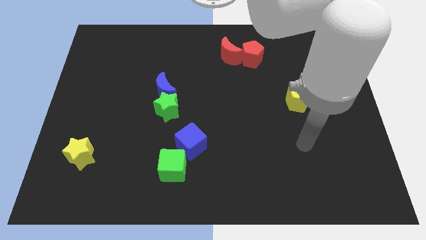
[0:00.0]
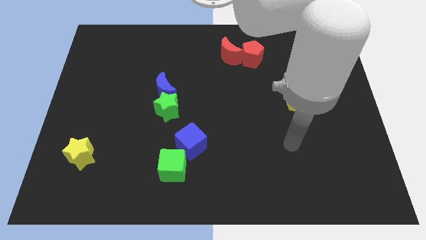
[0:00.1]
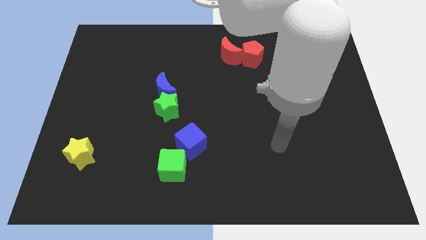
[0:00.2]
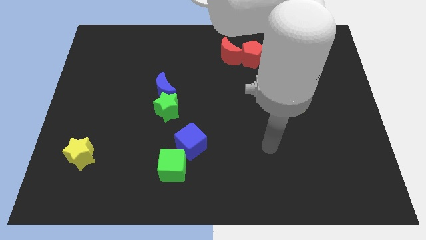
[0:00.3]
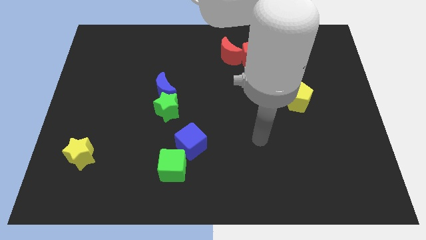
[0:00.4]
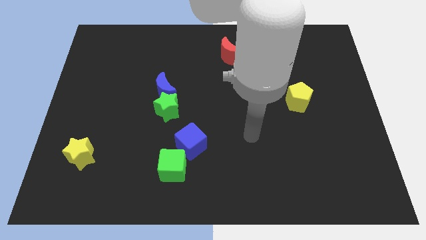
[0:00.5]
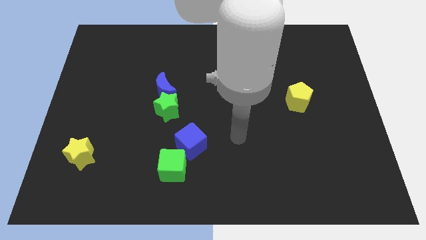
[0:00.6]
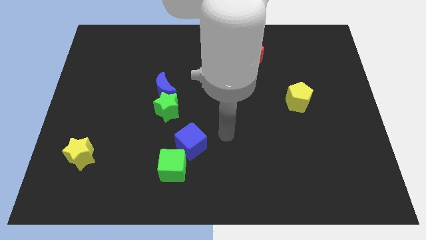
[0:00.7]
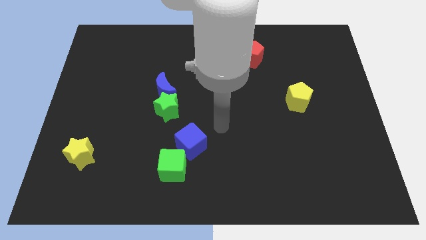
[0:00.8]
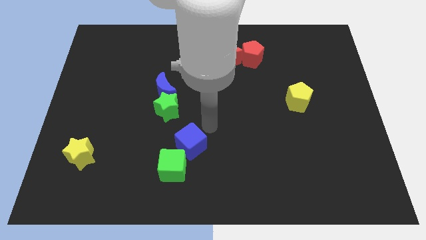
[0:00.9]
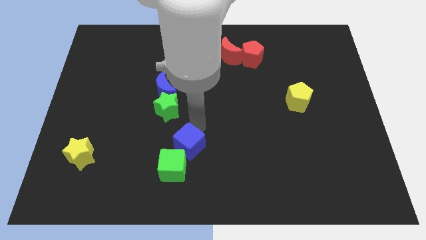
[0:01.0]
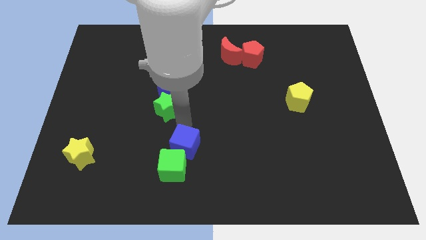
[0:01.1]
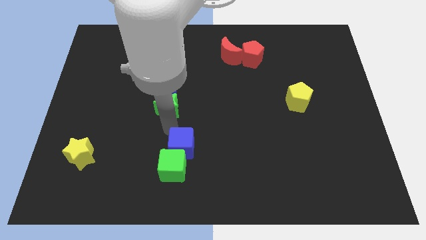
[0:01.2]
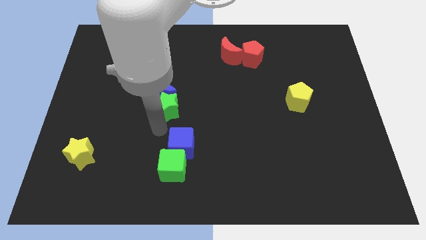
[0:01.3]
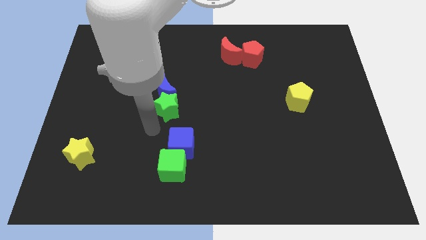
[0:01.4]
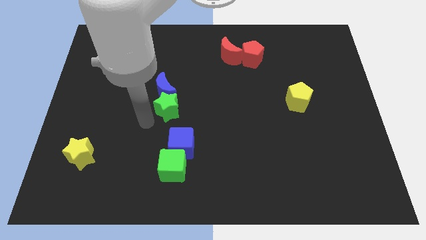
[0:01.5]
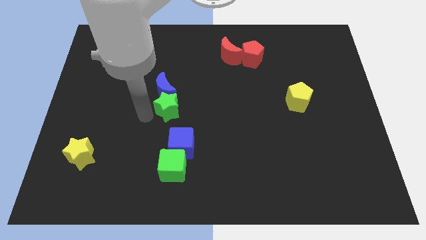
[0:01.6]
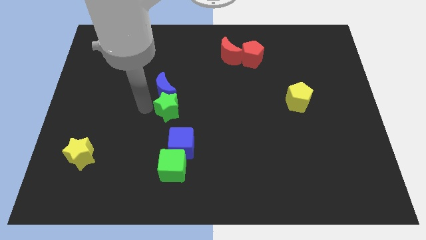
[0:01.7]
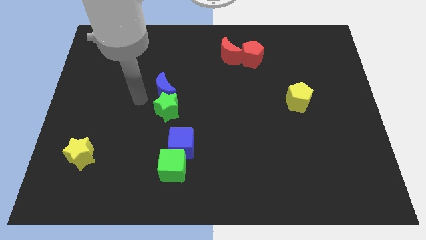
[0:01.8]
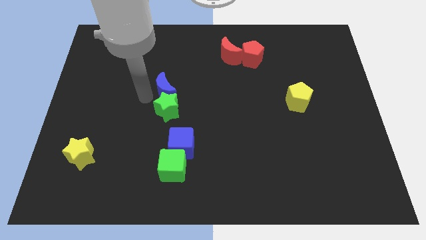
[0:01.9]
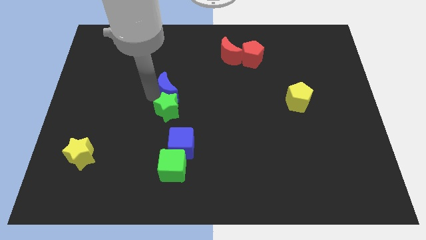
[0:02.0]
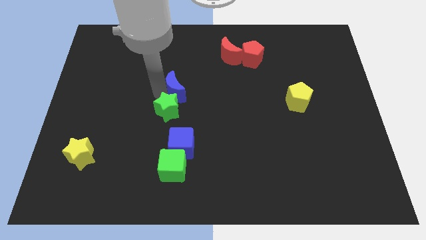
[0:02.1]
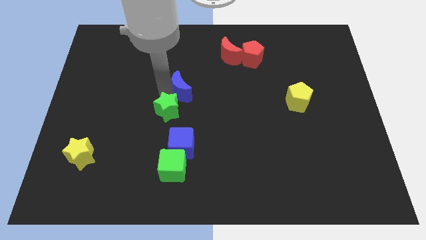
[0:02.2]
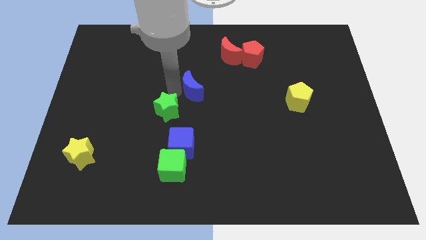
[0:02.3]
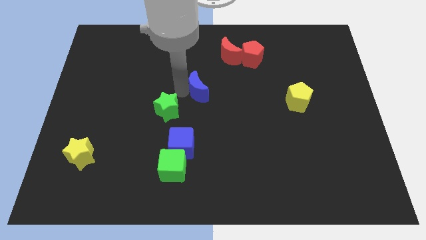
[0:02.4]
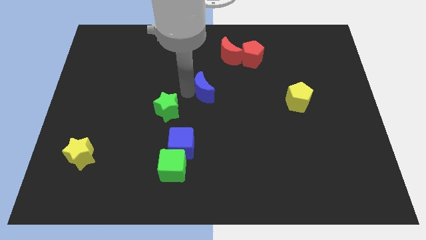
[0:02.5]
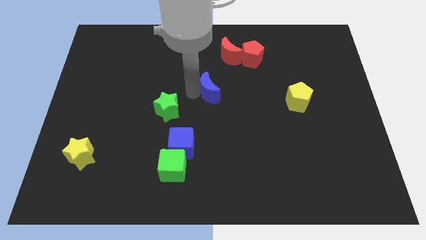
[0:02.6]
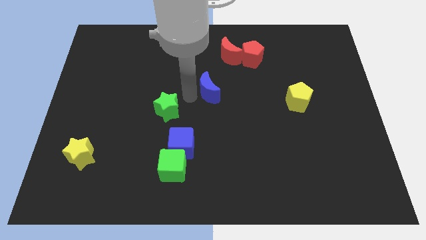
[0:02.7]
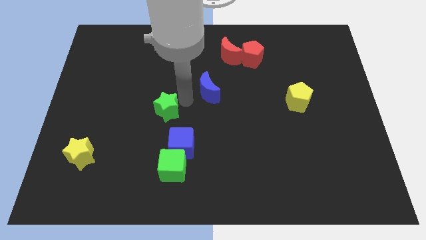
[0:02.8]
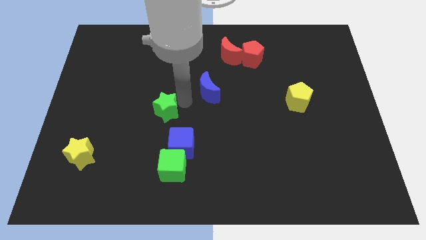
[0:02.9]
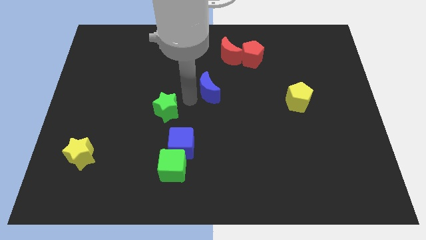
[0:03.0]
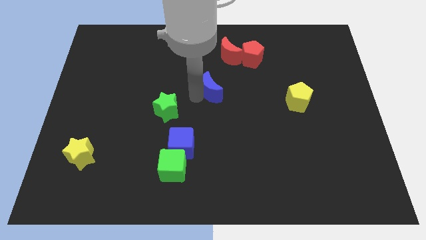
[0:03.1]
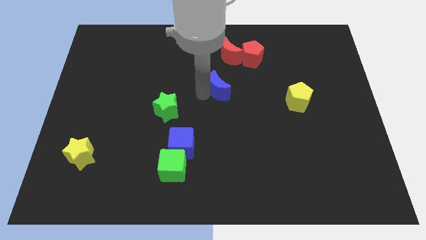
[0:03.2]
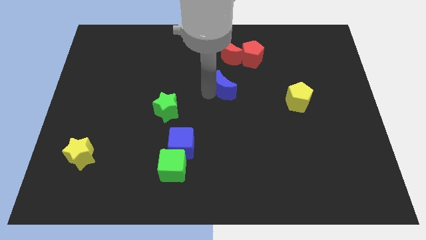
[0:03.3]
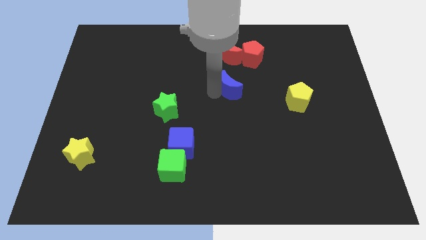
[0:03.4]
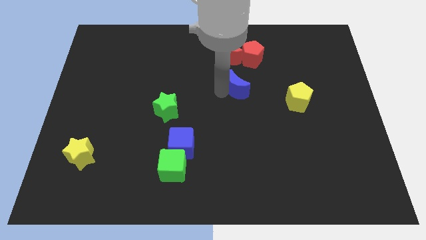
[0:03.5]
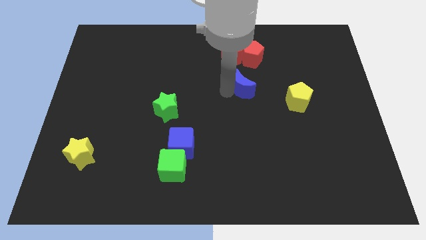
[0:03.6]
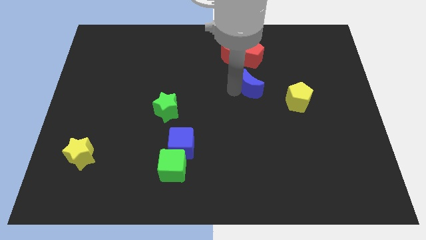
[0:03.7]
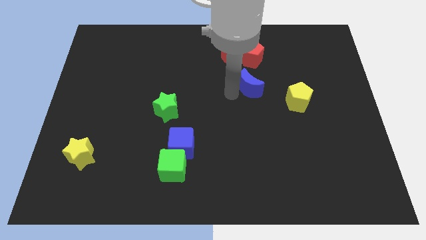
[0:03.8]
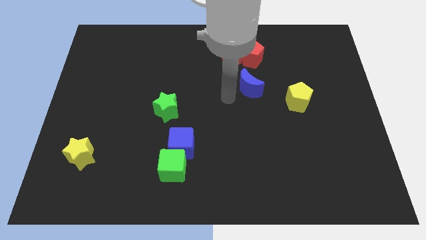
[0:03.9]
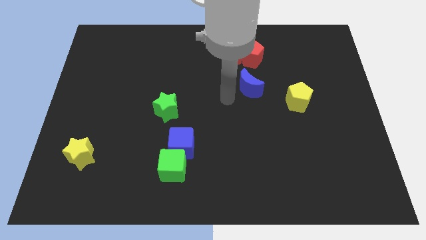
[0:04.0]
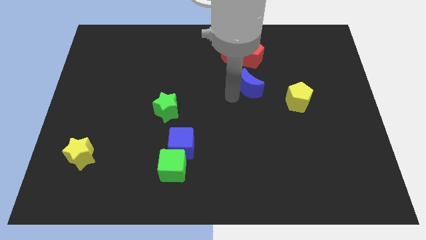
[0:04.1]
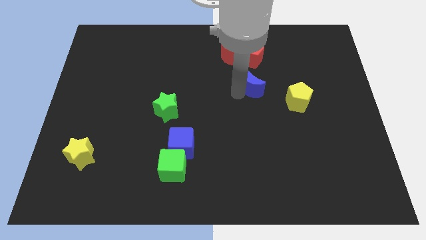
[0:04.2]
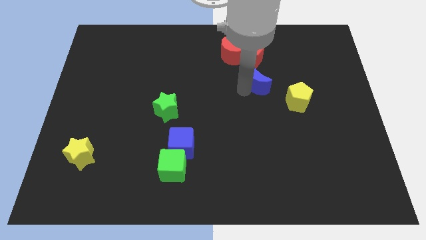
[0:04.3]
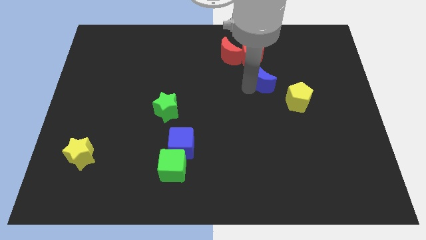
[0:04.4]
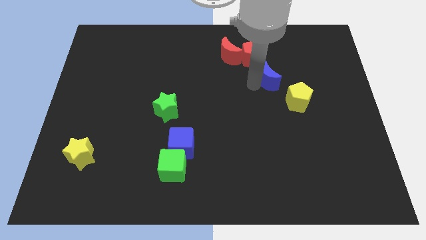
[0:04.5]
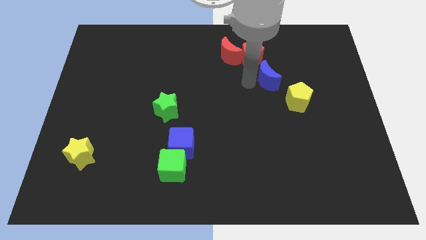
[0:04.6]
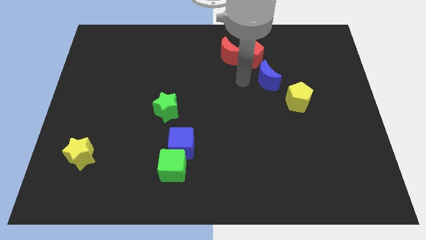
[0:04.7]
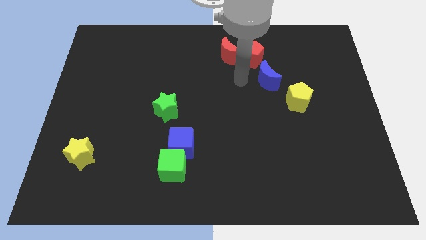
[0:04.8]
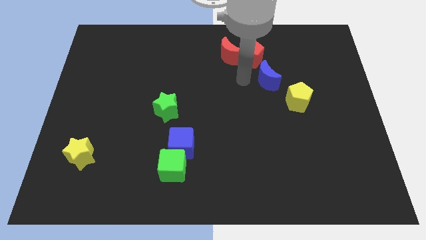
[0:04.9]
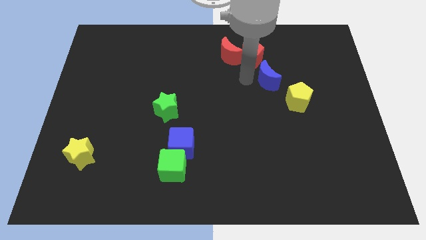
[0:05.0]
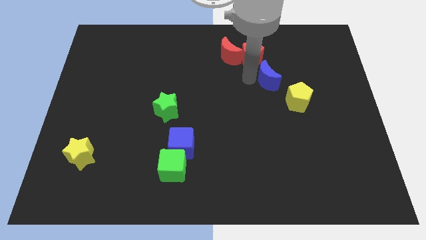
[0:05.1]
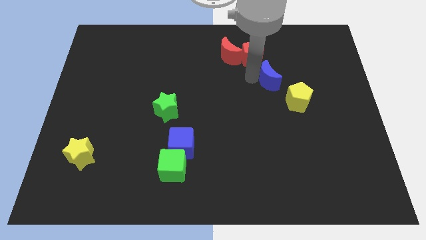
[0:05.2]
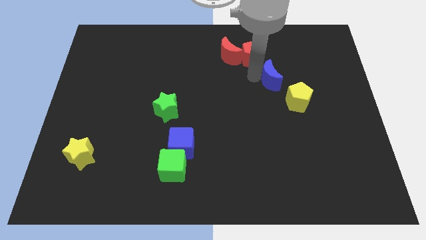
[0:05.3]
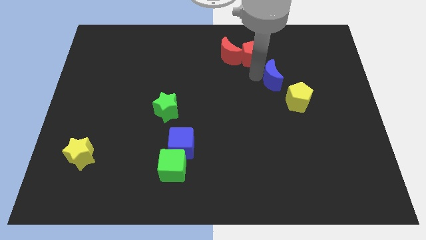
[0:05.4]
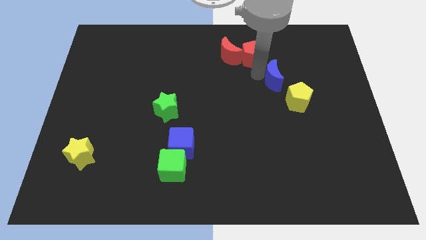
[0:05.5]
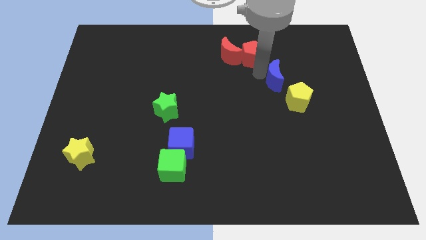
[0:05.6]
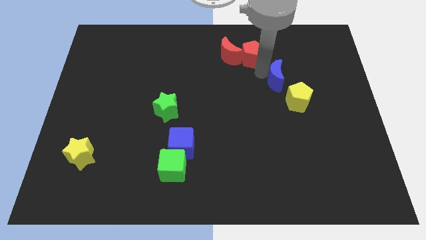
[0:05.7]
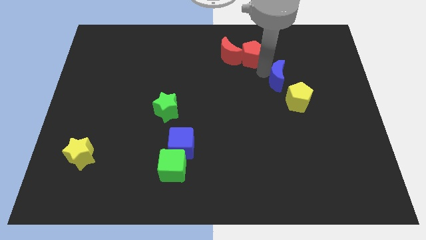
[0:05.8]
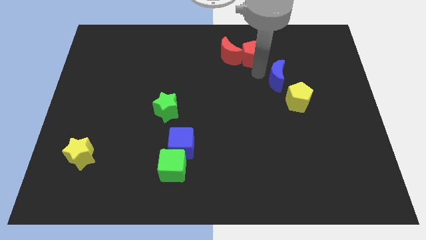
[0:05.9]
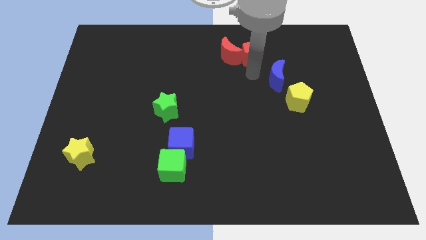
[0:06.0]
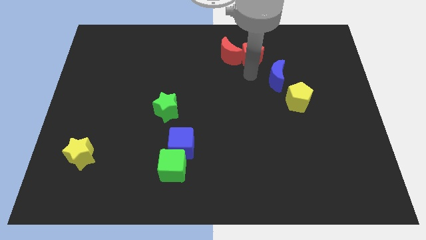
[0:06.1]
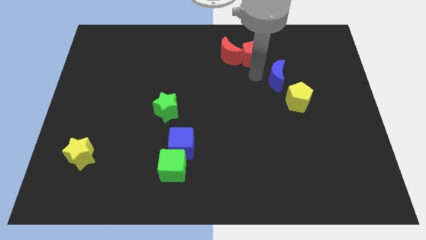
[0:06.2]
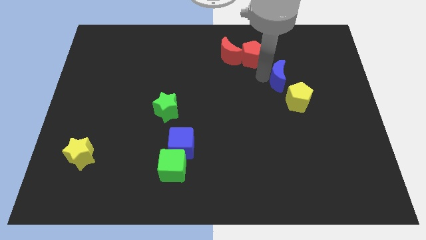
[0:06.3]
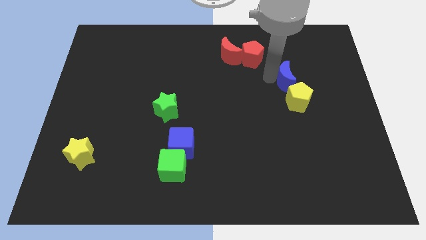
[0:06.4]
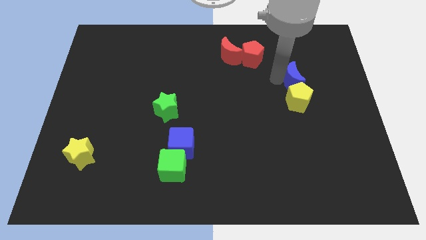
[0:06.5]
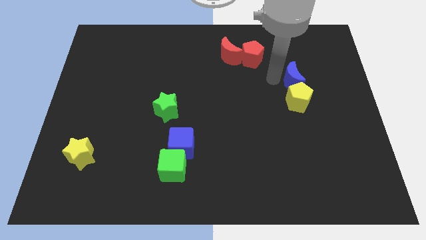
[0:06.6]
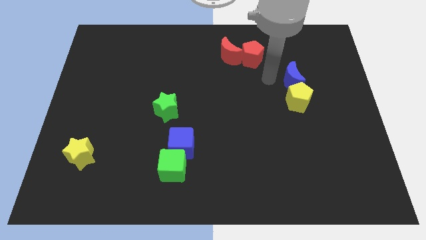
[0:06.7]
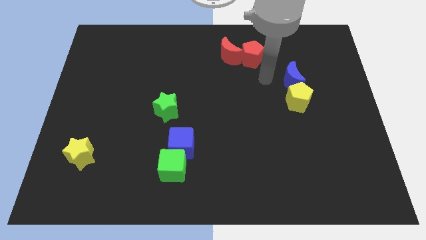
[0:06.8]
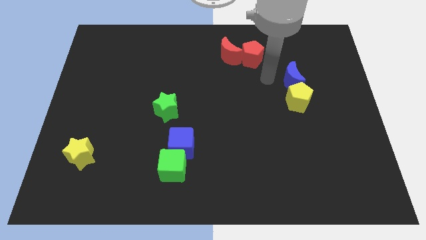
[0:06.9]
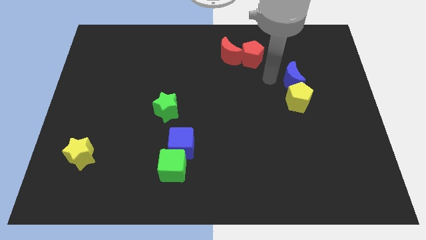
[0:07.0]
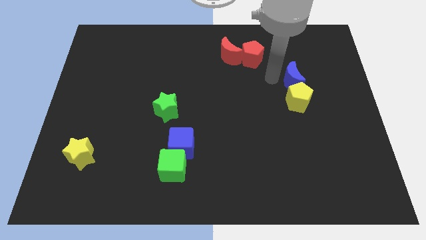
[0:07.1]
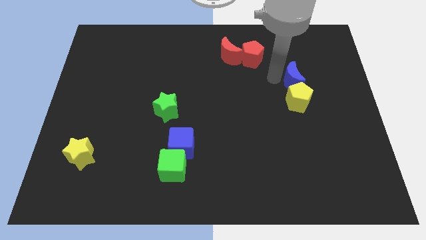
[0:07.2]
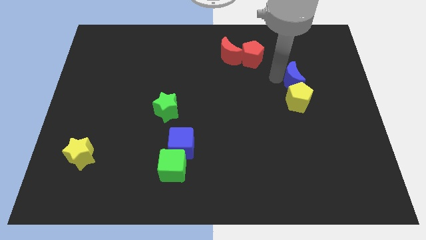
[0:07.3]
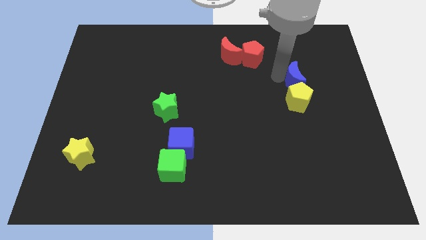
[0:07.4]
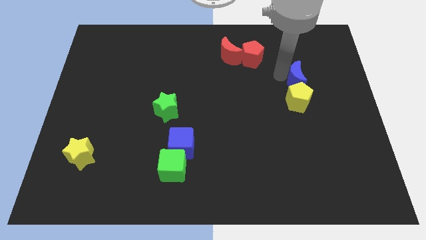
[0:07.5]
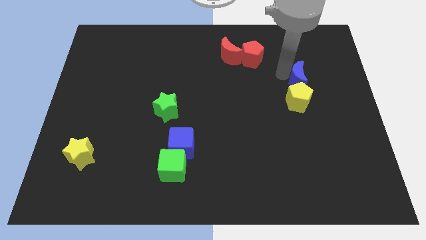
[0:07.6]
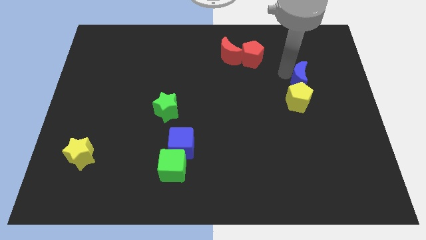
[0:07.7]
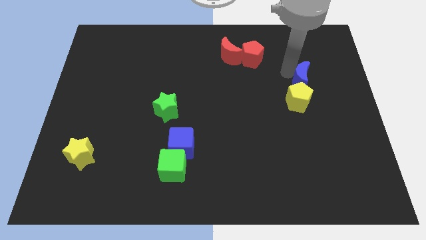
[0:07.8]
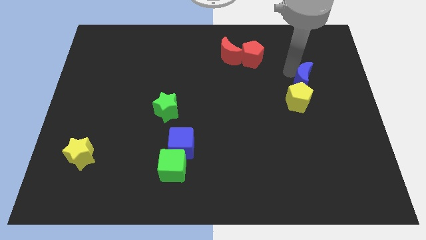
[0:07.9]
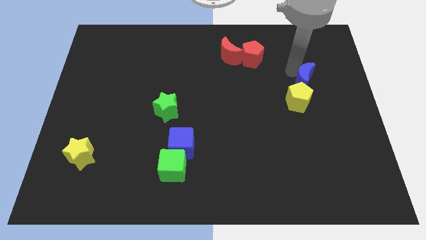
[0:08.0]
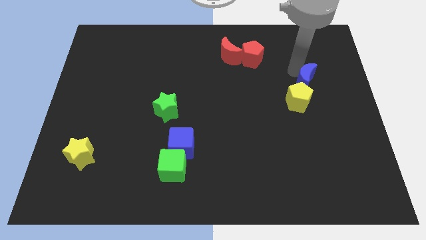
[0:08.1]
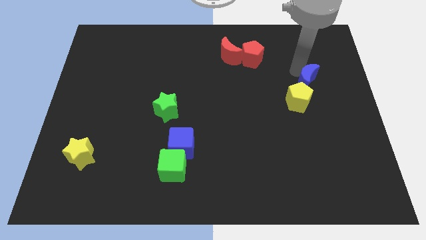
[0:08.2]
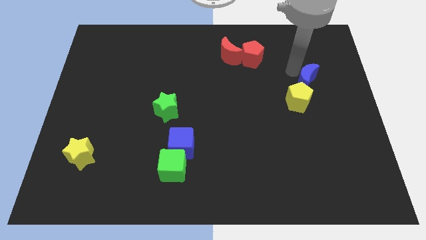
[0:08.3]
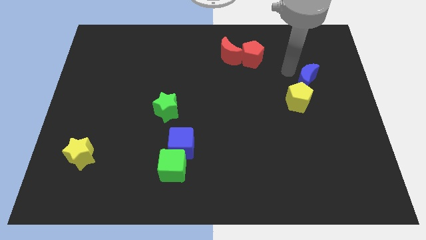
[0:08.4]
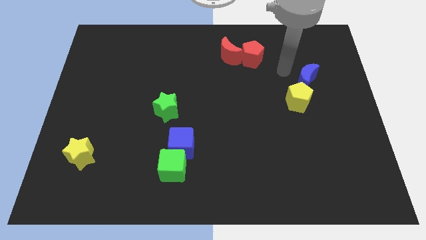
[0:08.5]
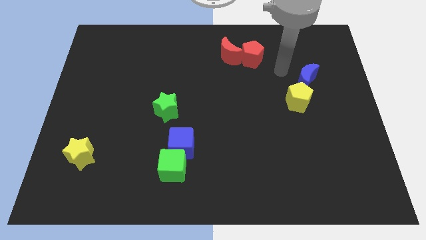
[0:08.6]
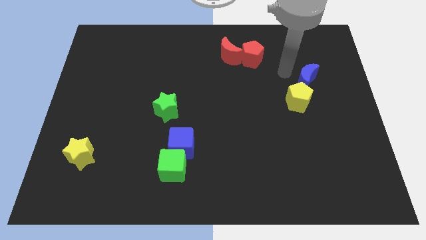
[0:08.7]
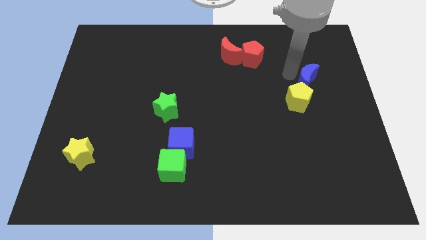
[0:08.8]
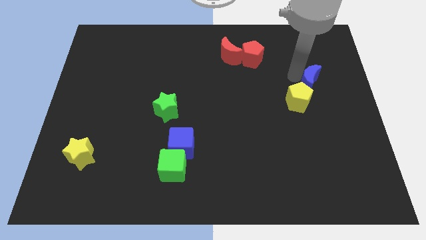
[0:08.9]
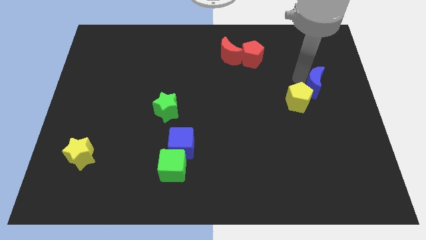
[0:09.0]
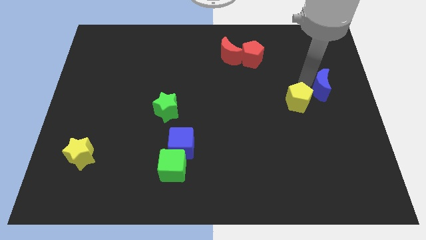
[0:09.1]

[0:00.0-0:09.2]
move the blue moon to the right side of the board
